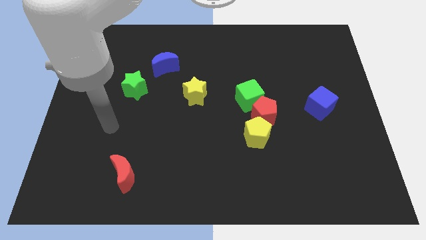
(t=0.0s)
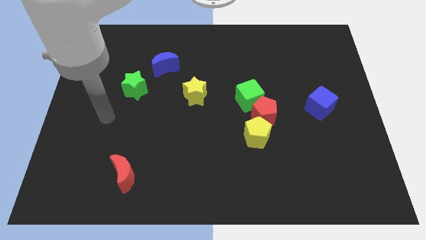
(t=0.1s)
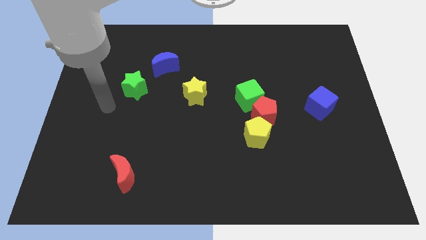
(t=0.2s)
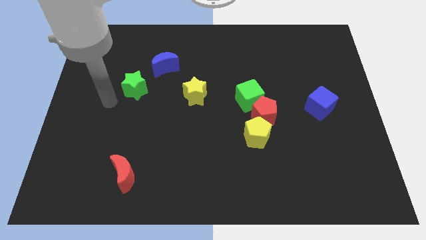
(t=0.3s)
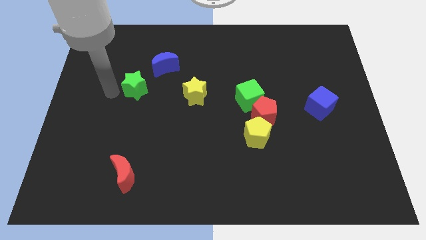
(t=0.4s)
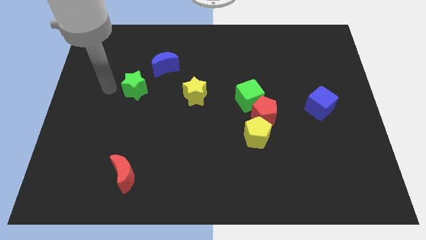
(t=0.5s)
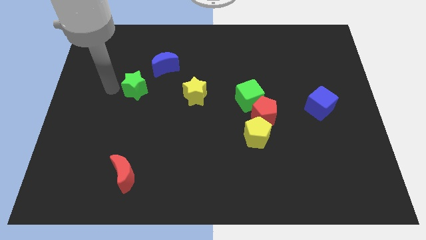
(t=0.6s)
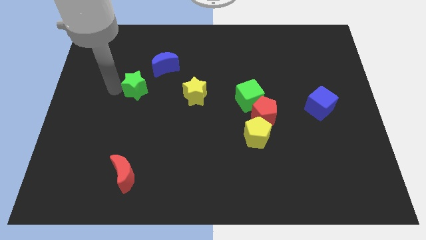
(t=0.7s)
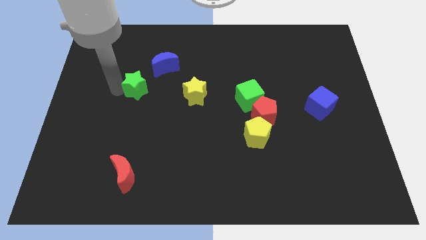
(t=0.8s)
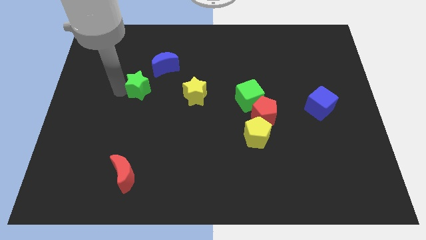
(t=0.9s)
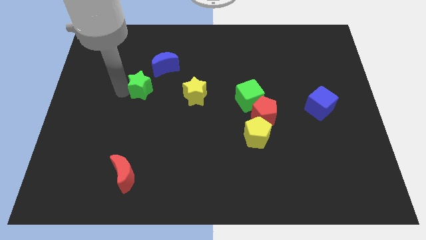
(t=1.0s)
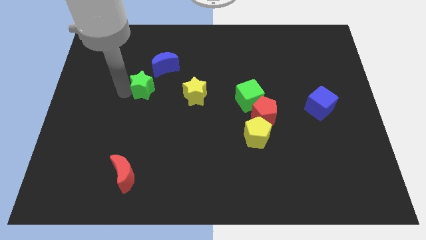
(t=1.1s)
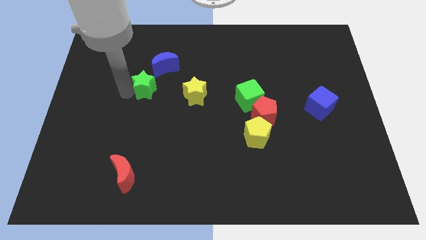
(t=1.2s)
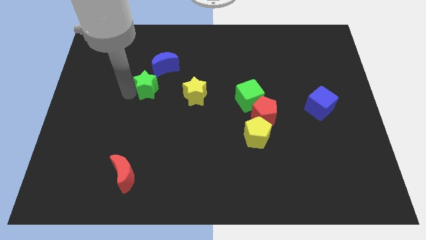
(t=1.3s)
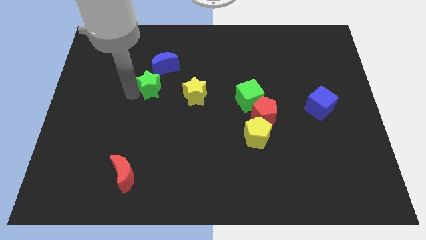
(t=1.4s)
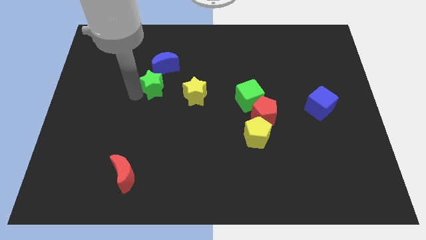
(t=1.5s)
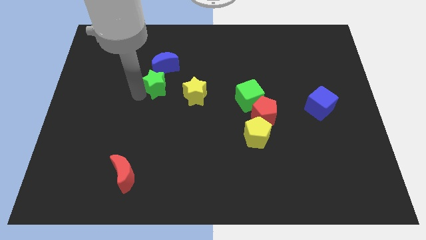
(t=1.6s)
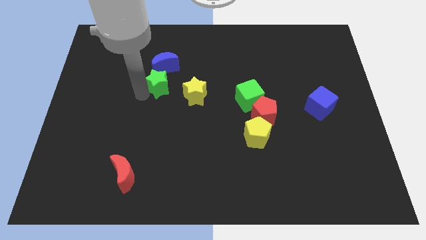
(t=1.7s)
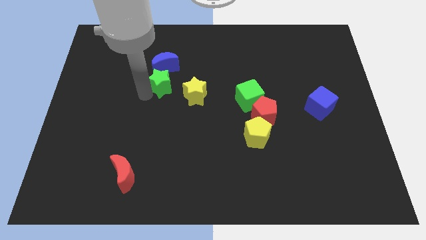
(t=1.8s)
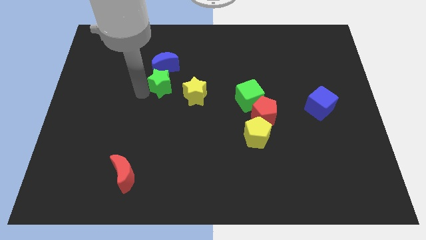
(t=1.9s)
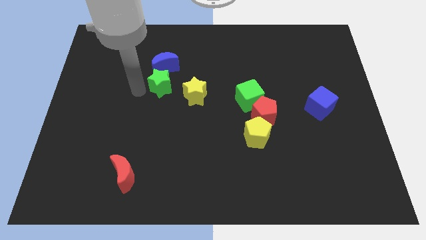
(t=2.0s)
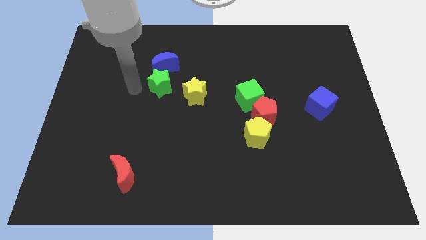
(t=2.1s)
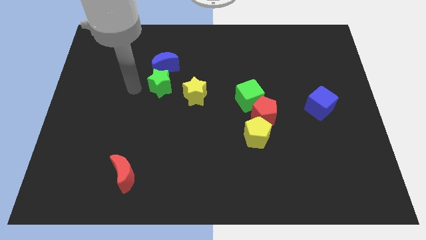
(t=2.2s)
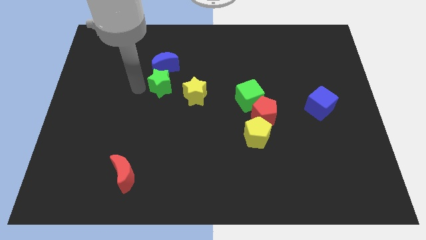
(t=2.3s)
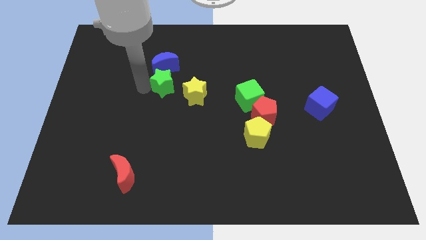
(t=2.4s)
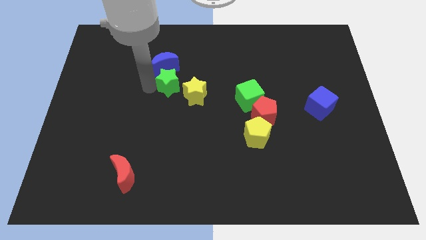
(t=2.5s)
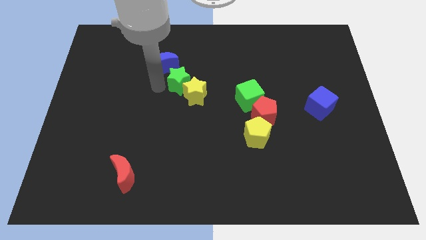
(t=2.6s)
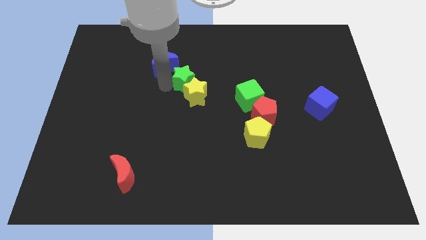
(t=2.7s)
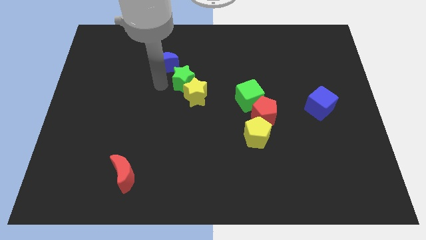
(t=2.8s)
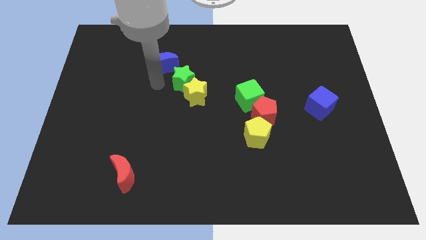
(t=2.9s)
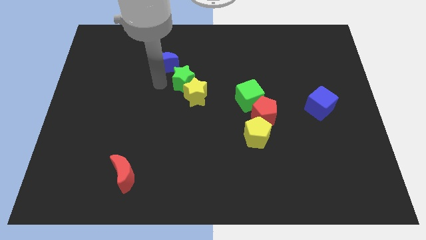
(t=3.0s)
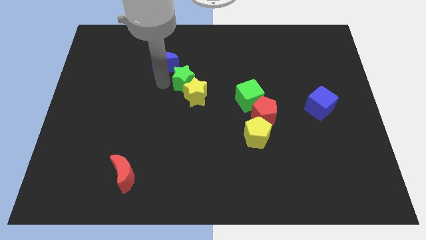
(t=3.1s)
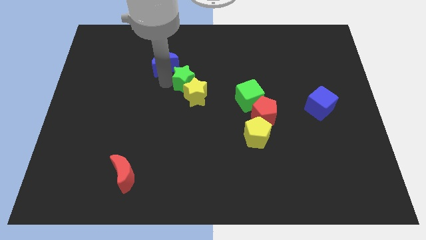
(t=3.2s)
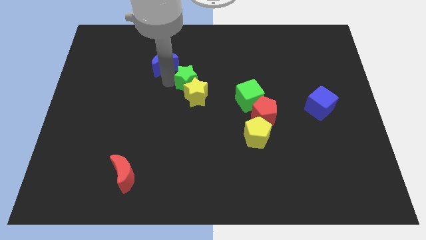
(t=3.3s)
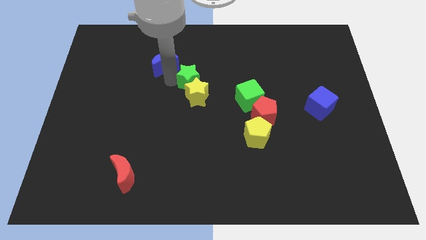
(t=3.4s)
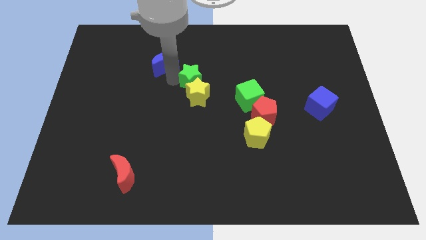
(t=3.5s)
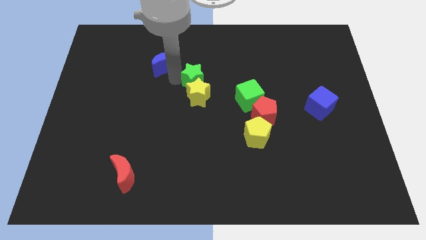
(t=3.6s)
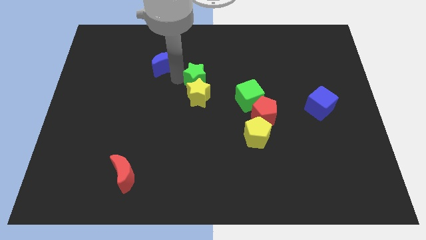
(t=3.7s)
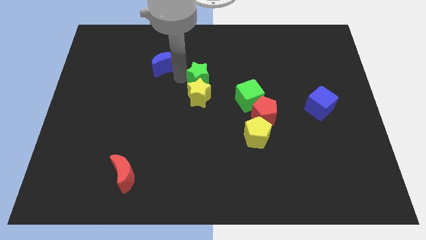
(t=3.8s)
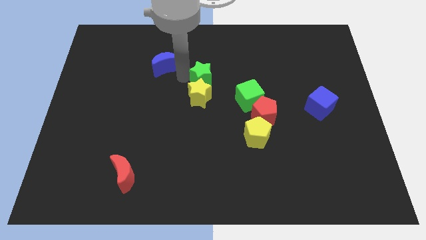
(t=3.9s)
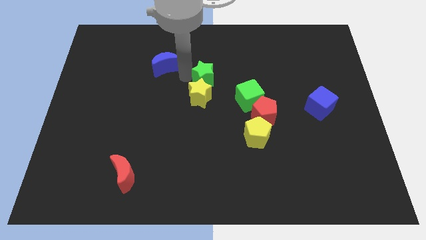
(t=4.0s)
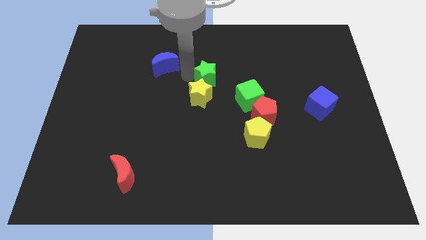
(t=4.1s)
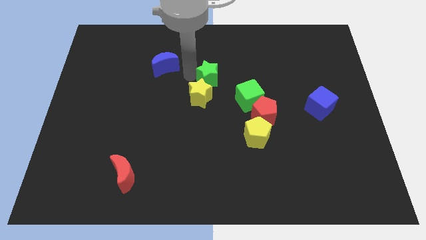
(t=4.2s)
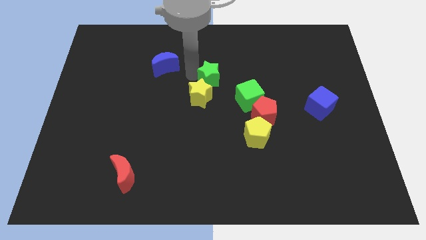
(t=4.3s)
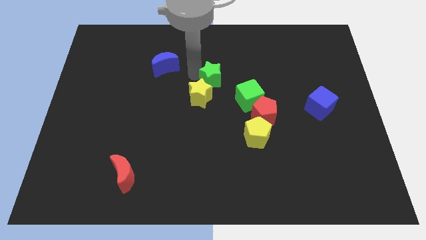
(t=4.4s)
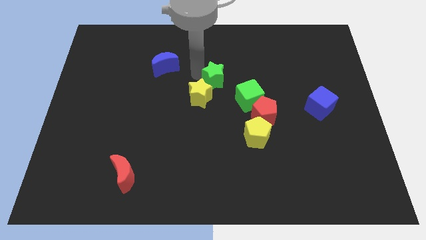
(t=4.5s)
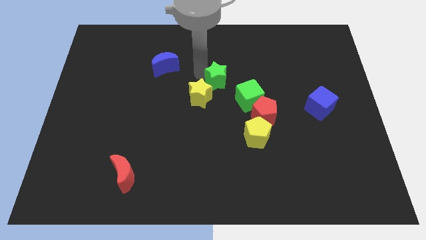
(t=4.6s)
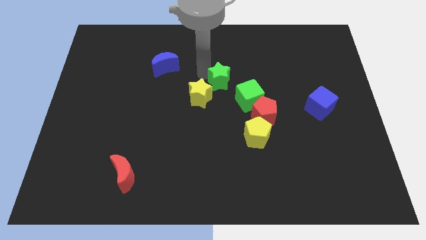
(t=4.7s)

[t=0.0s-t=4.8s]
slide the green star to the right

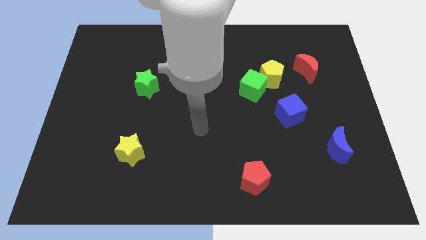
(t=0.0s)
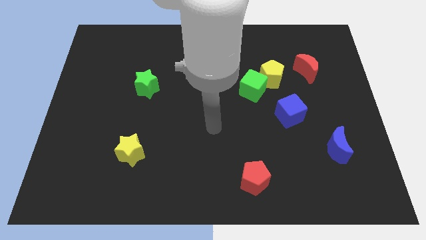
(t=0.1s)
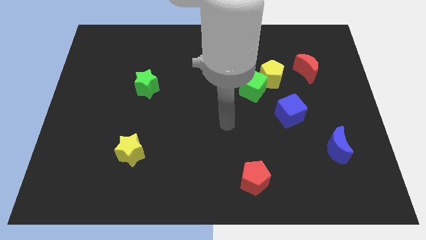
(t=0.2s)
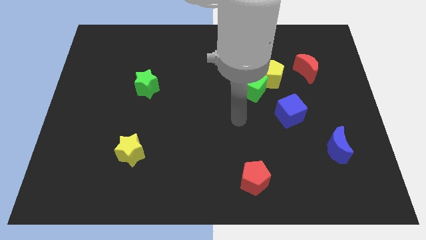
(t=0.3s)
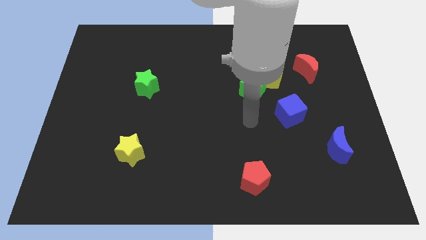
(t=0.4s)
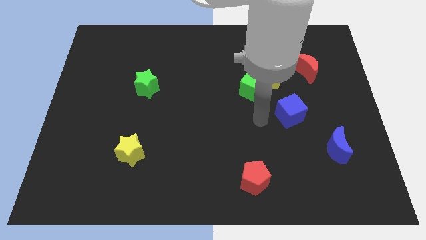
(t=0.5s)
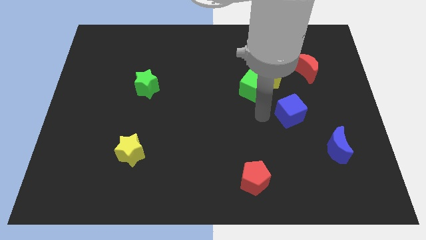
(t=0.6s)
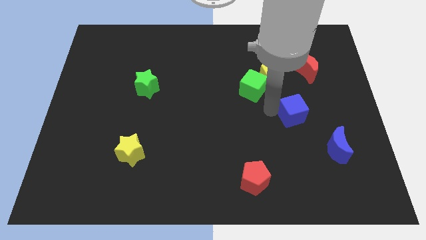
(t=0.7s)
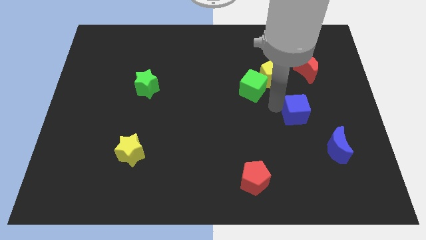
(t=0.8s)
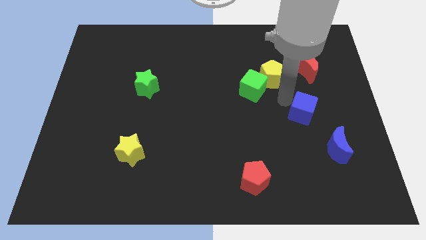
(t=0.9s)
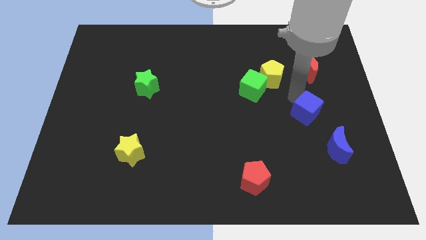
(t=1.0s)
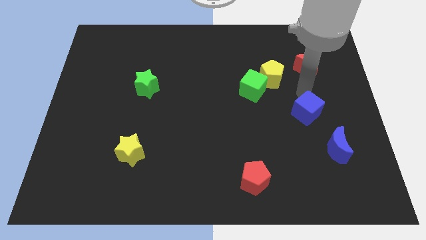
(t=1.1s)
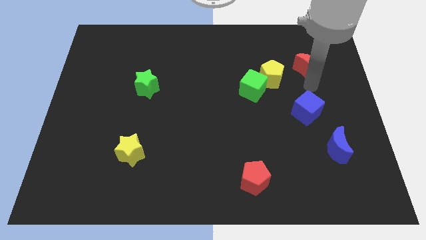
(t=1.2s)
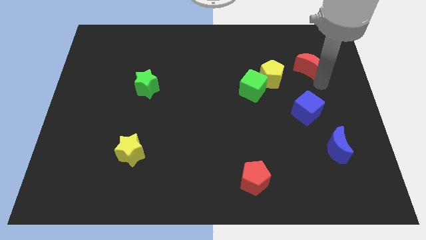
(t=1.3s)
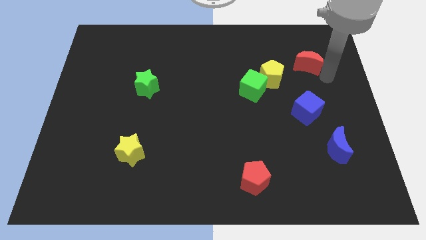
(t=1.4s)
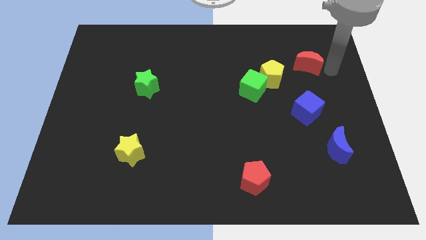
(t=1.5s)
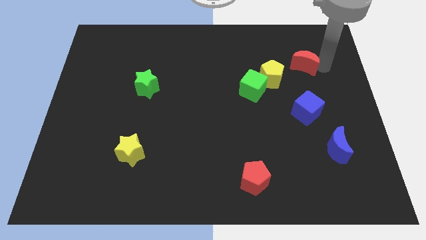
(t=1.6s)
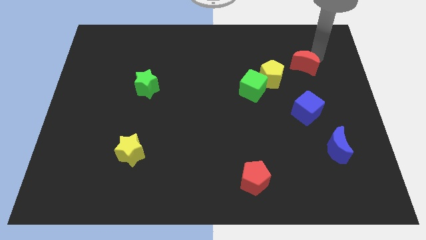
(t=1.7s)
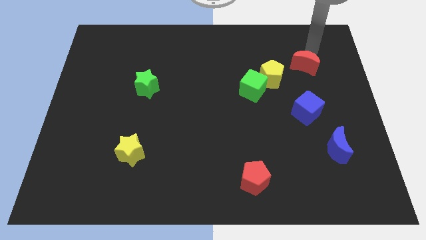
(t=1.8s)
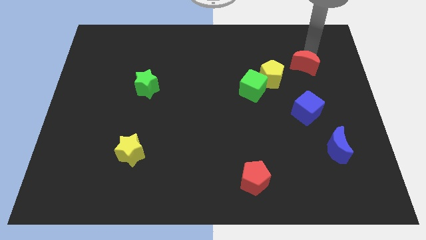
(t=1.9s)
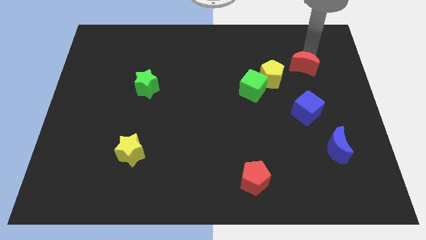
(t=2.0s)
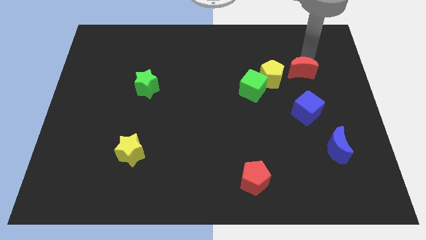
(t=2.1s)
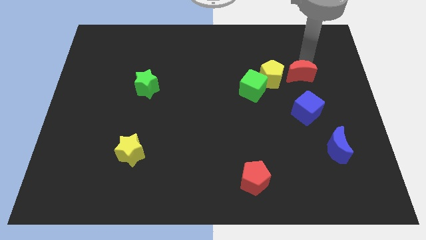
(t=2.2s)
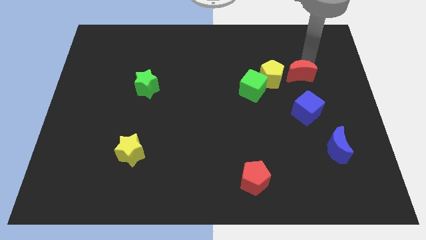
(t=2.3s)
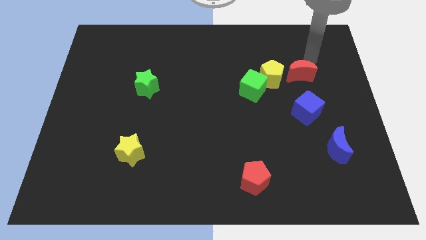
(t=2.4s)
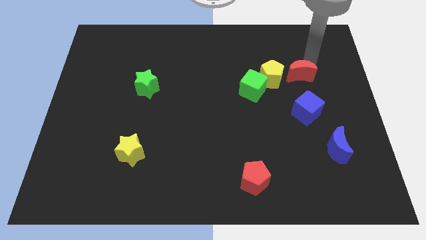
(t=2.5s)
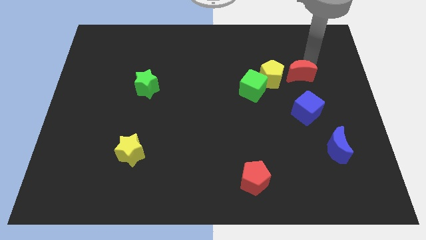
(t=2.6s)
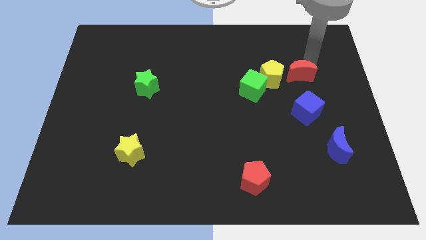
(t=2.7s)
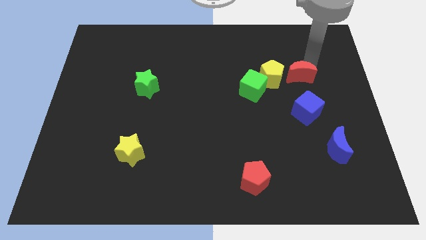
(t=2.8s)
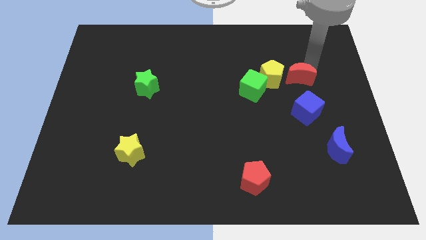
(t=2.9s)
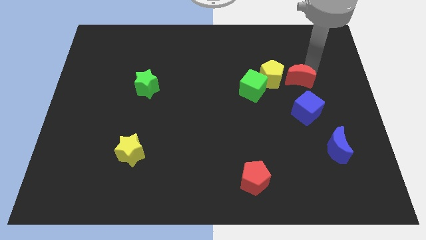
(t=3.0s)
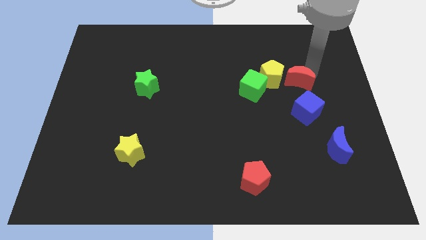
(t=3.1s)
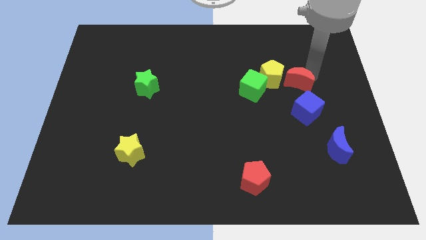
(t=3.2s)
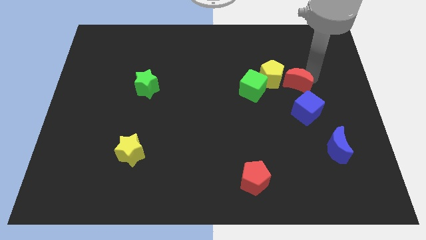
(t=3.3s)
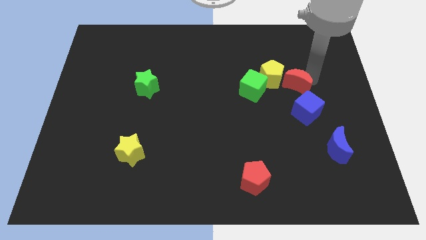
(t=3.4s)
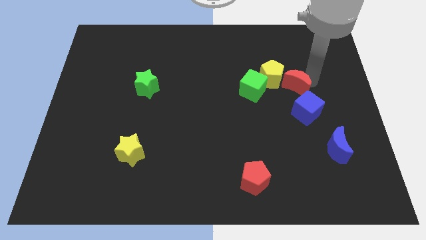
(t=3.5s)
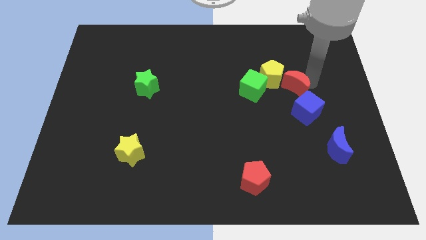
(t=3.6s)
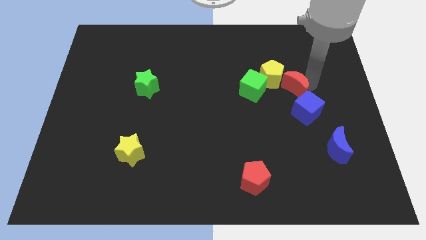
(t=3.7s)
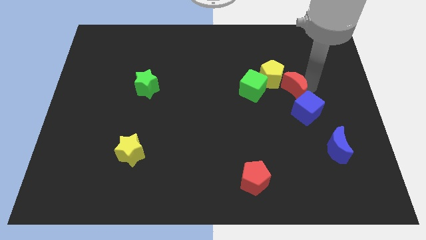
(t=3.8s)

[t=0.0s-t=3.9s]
slightly push the red moon downwards and then to the left
